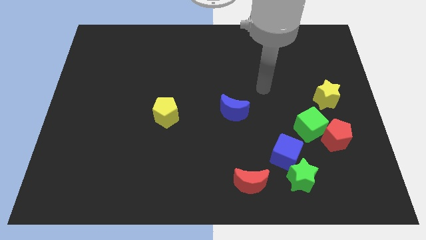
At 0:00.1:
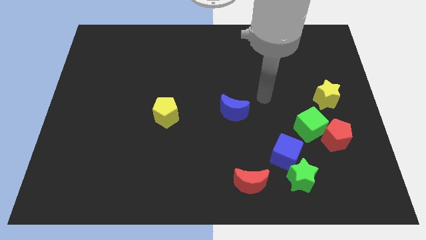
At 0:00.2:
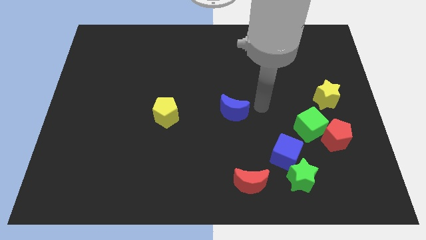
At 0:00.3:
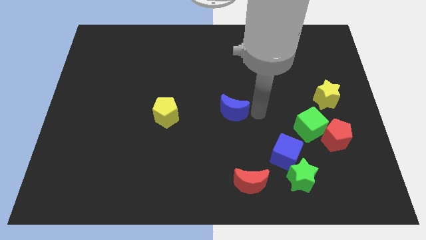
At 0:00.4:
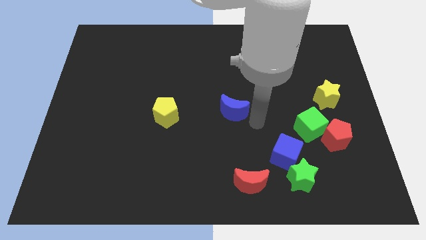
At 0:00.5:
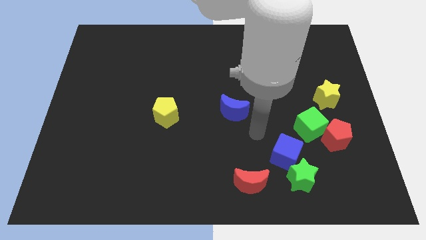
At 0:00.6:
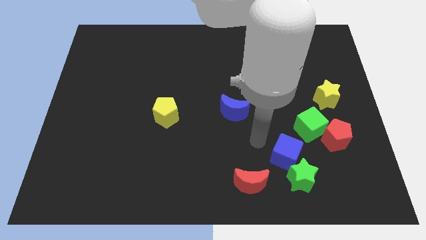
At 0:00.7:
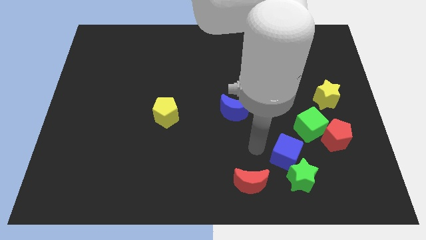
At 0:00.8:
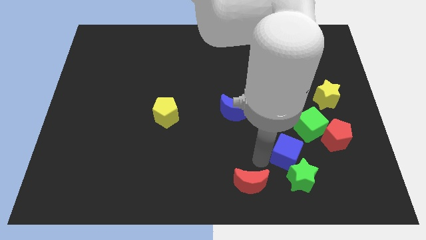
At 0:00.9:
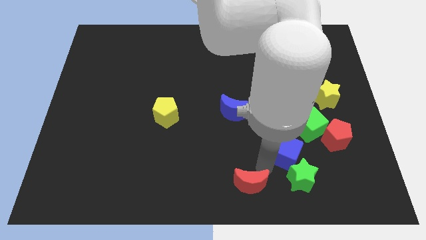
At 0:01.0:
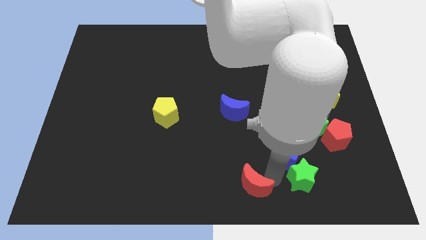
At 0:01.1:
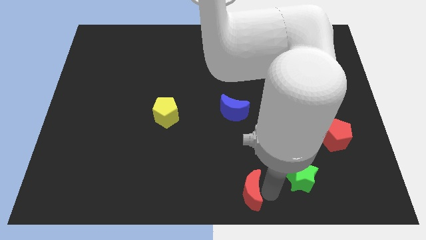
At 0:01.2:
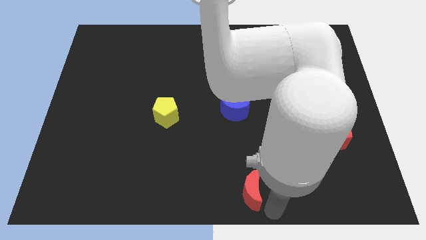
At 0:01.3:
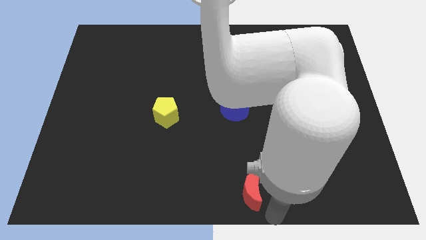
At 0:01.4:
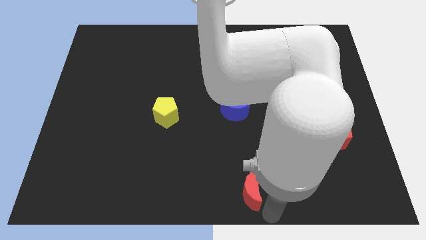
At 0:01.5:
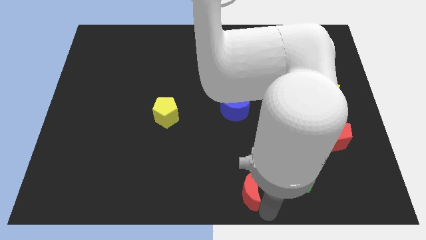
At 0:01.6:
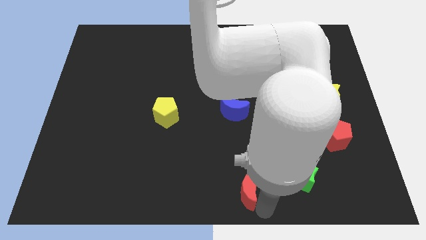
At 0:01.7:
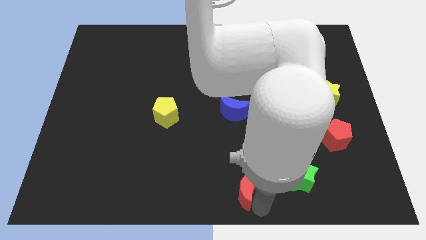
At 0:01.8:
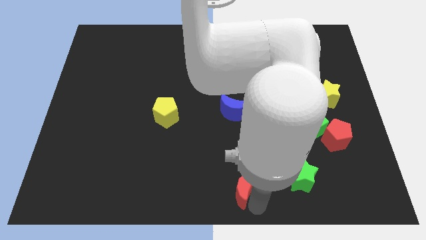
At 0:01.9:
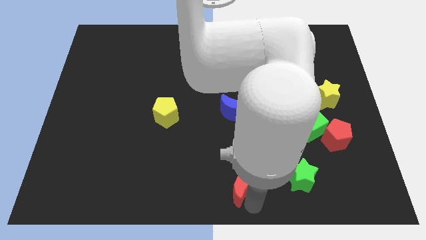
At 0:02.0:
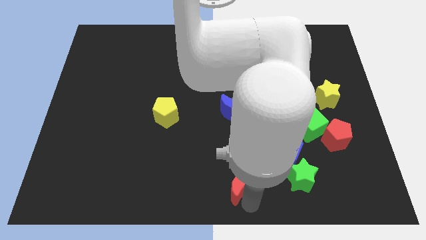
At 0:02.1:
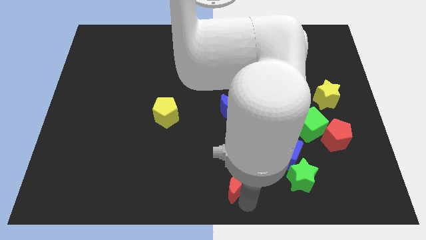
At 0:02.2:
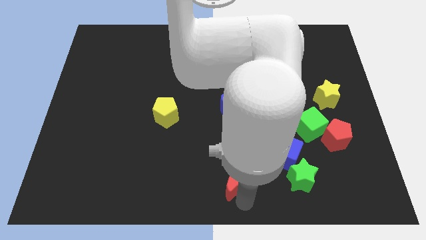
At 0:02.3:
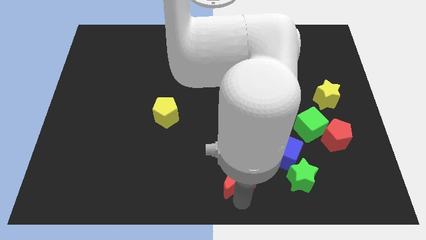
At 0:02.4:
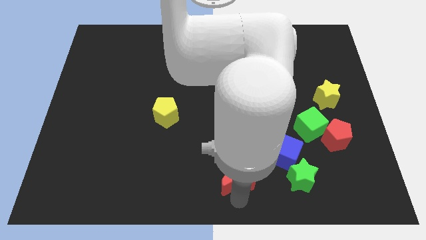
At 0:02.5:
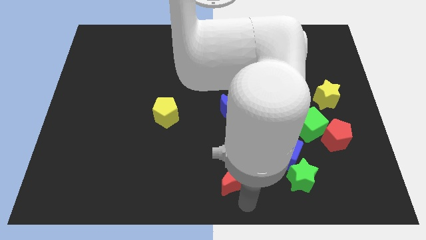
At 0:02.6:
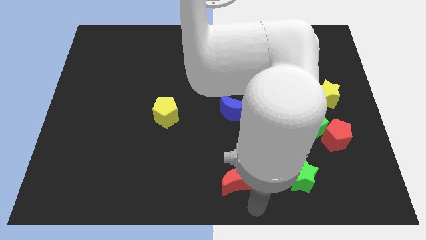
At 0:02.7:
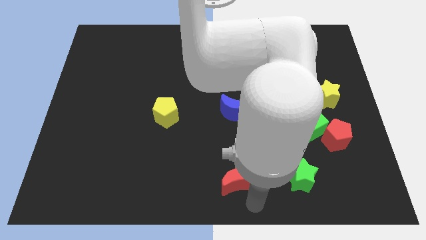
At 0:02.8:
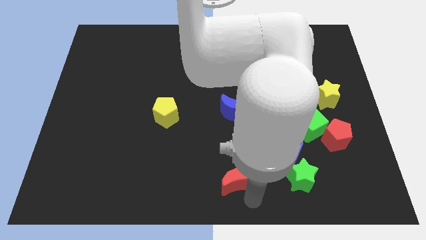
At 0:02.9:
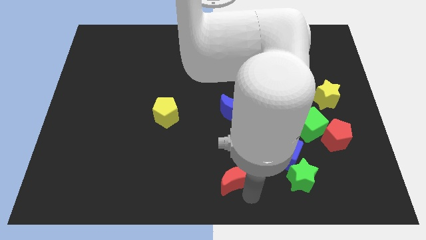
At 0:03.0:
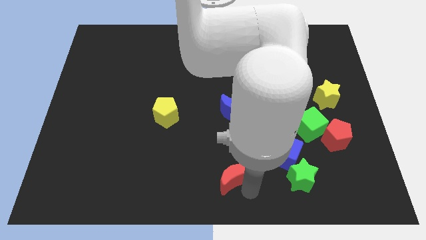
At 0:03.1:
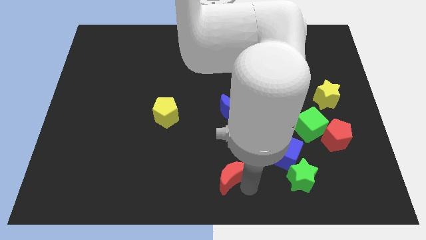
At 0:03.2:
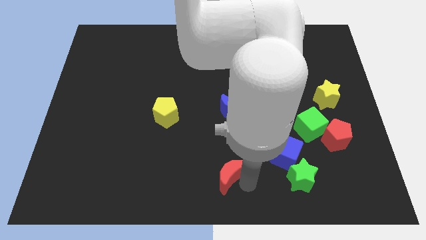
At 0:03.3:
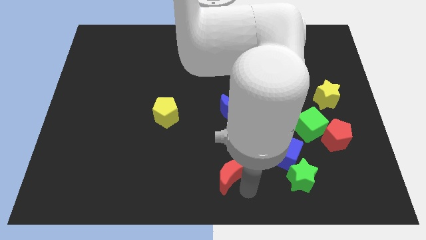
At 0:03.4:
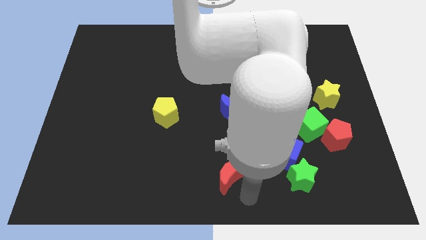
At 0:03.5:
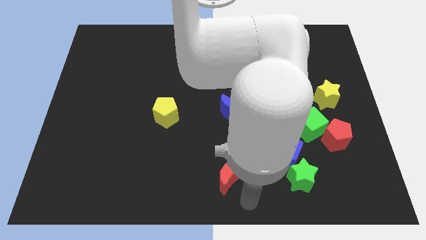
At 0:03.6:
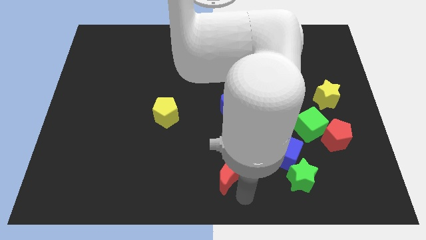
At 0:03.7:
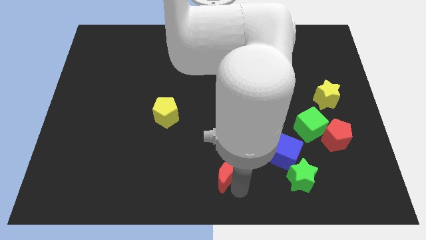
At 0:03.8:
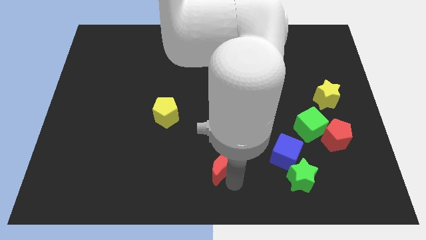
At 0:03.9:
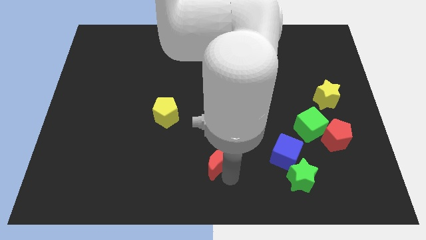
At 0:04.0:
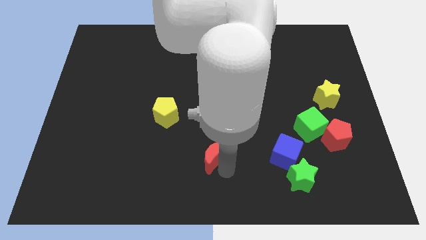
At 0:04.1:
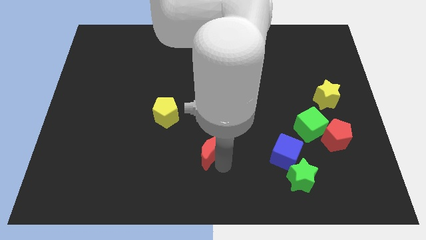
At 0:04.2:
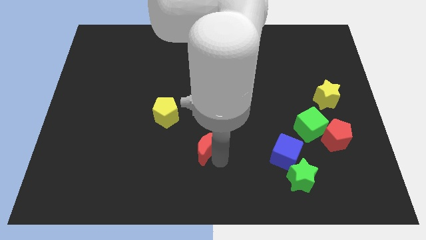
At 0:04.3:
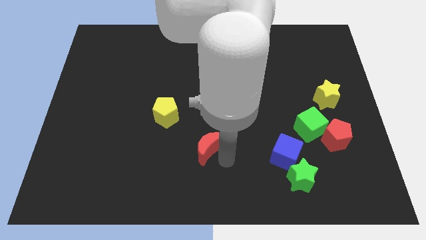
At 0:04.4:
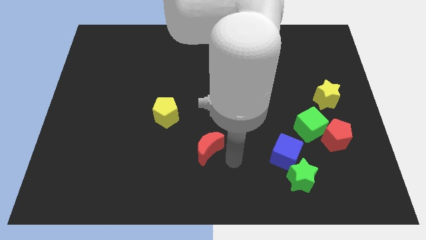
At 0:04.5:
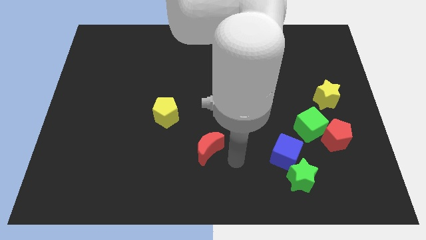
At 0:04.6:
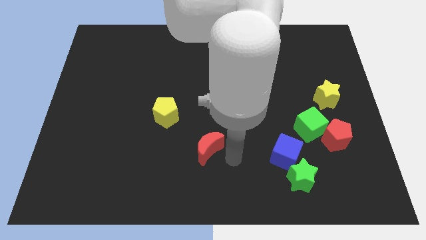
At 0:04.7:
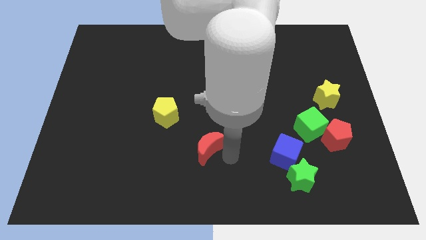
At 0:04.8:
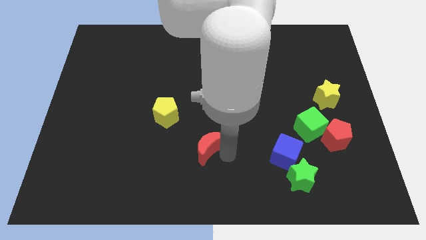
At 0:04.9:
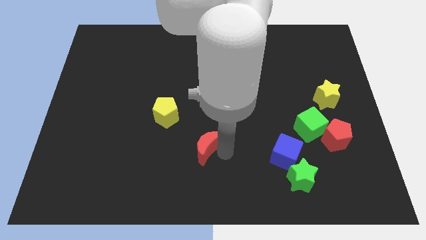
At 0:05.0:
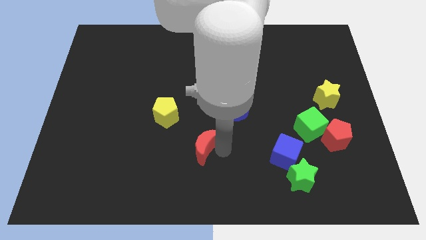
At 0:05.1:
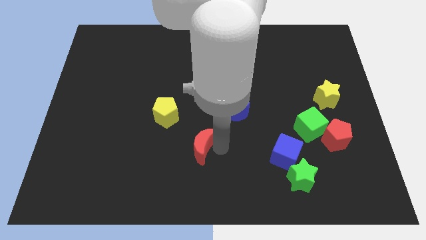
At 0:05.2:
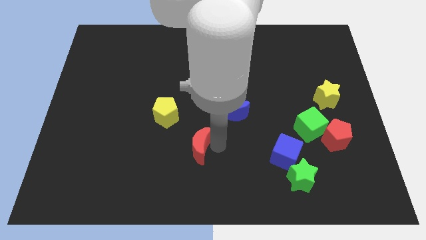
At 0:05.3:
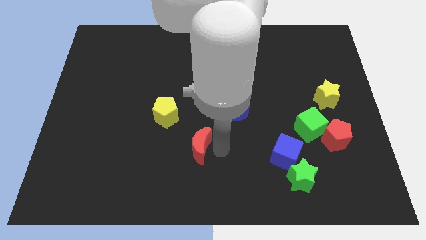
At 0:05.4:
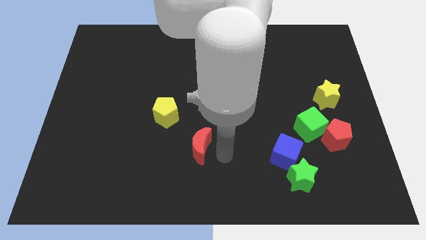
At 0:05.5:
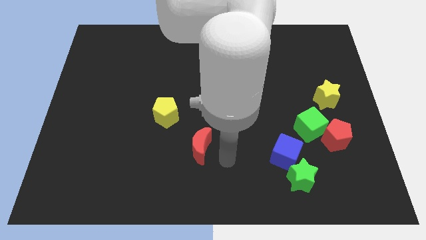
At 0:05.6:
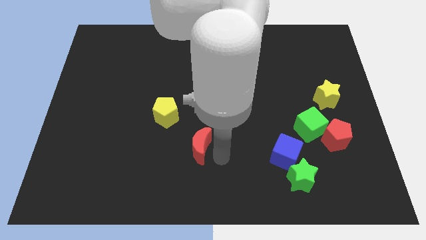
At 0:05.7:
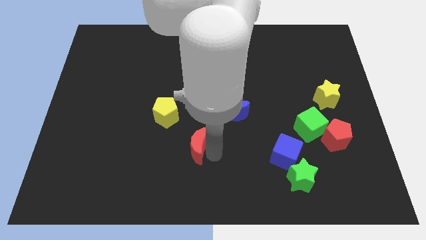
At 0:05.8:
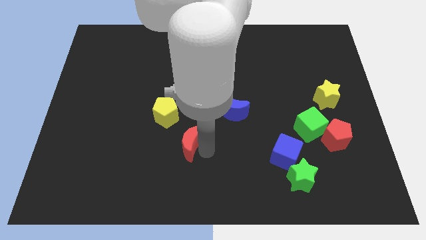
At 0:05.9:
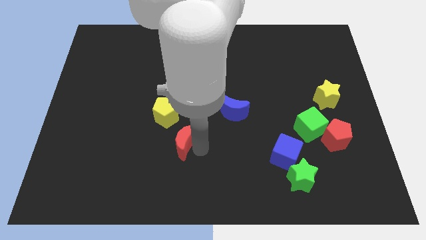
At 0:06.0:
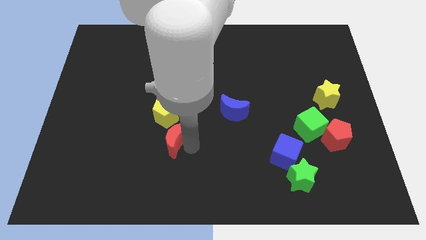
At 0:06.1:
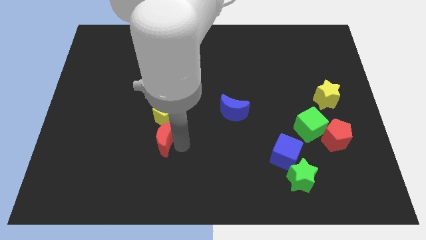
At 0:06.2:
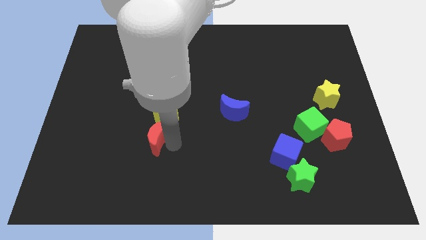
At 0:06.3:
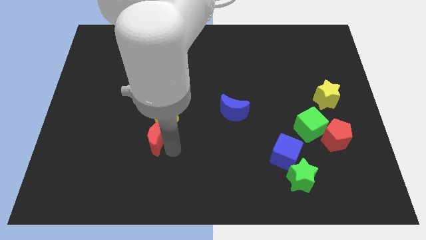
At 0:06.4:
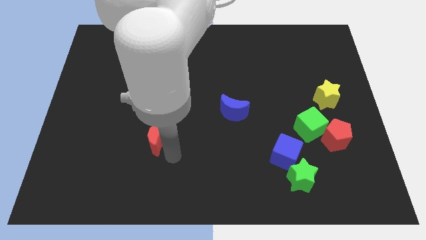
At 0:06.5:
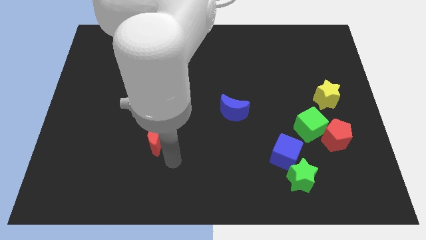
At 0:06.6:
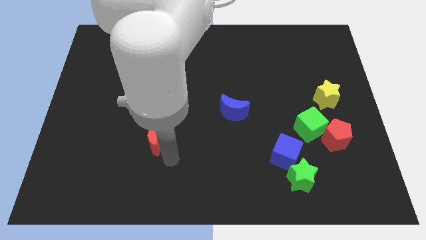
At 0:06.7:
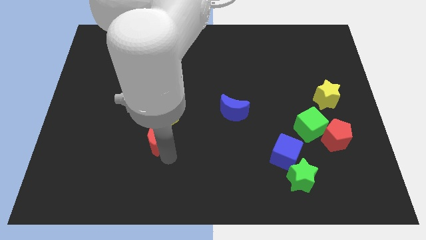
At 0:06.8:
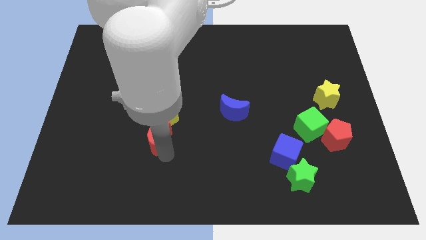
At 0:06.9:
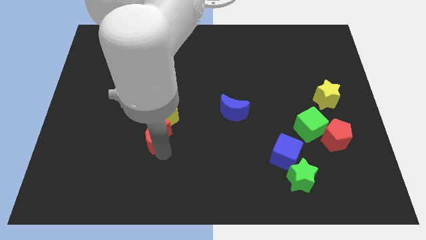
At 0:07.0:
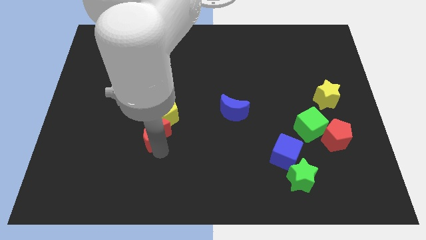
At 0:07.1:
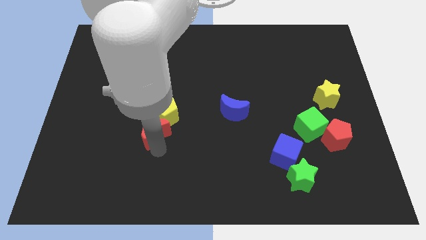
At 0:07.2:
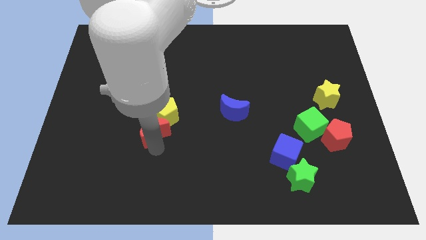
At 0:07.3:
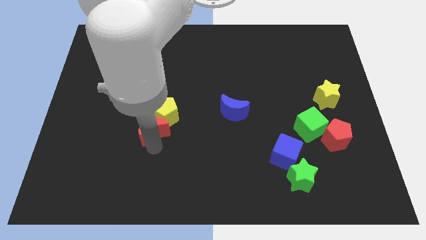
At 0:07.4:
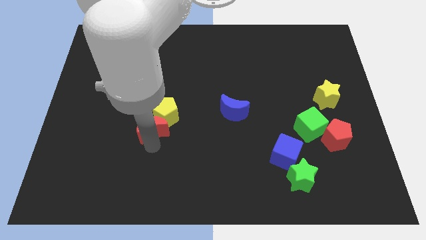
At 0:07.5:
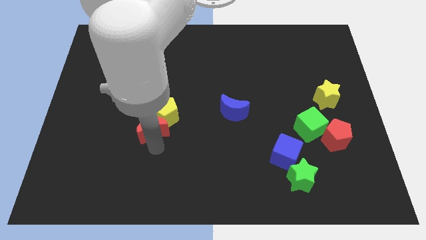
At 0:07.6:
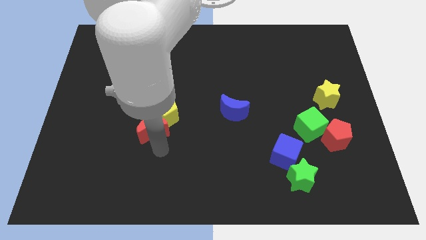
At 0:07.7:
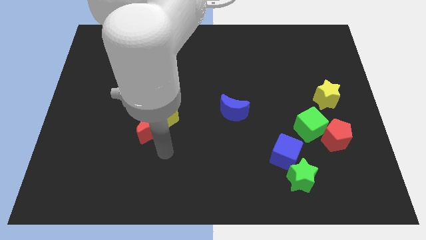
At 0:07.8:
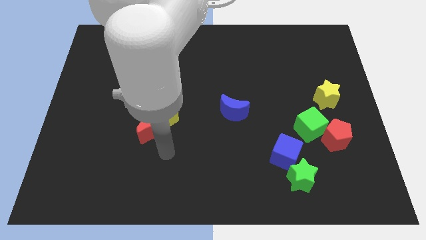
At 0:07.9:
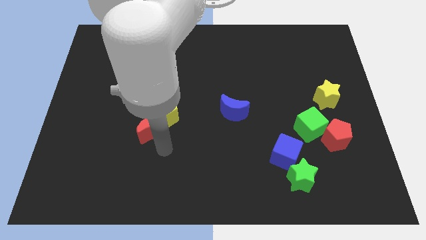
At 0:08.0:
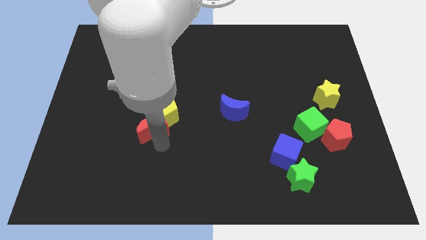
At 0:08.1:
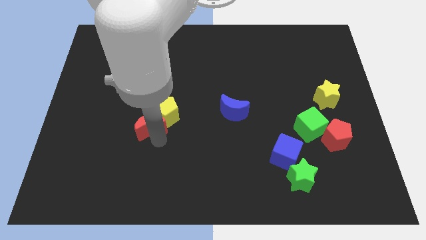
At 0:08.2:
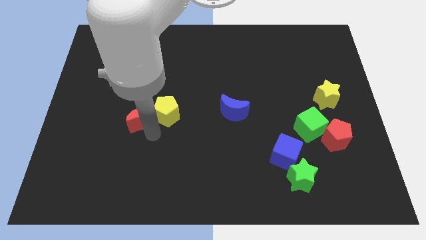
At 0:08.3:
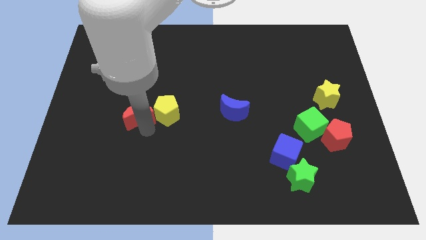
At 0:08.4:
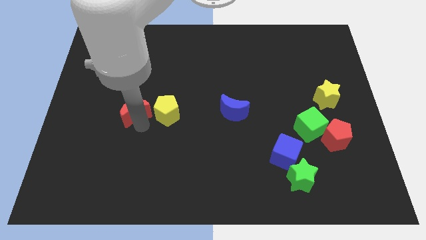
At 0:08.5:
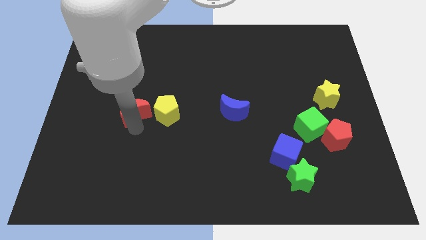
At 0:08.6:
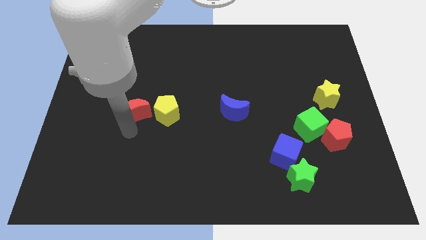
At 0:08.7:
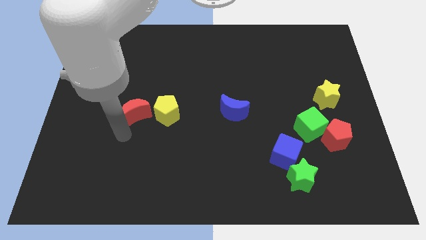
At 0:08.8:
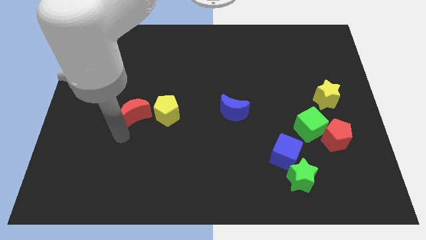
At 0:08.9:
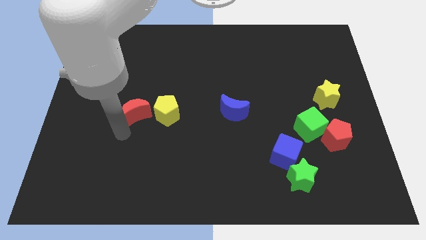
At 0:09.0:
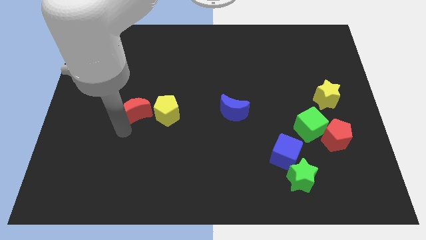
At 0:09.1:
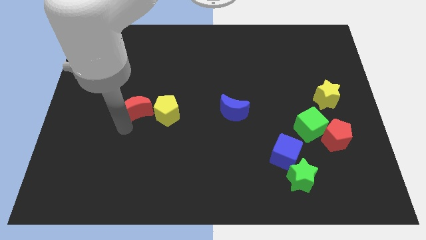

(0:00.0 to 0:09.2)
slide the red moon to the top left of the yellow pentagon
